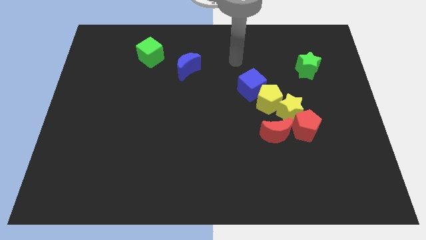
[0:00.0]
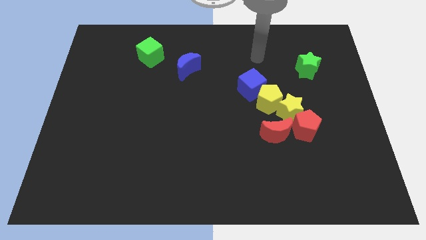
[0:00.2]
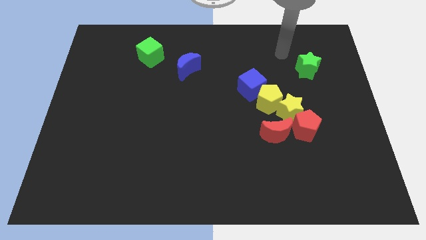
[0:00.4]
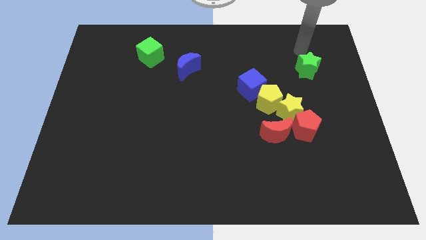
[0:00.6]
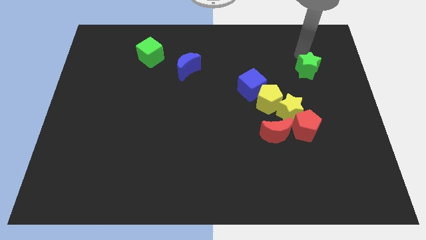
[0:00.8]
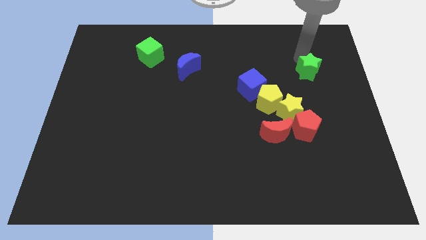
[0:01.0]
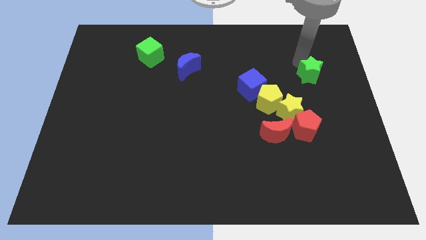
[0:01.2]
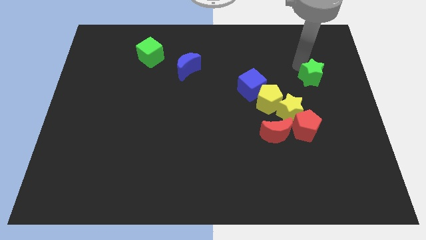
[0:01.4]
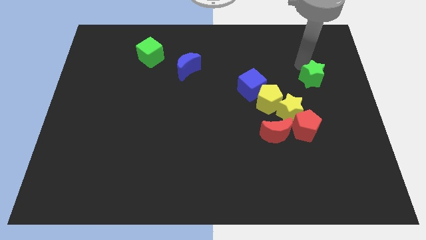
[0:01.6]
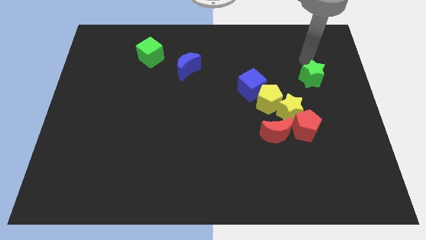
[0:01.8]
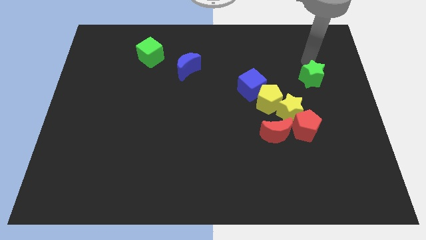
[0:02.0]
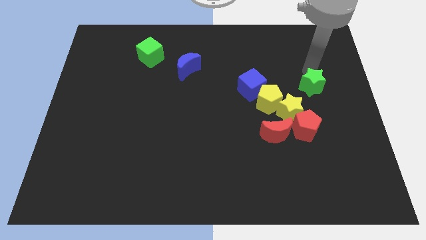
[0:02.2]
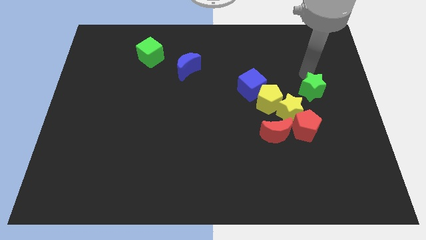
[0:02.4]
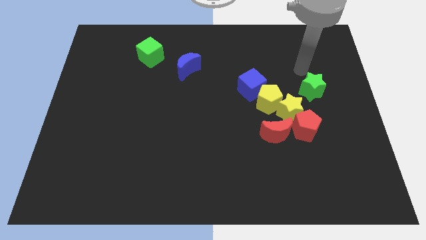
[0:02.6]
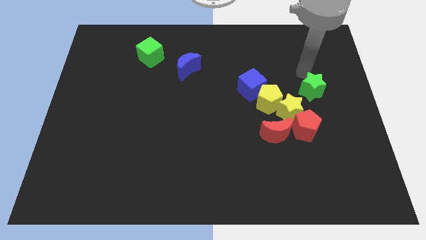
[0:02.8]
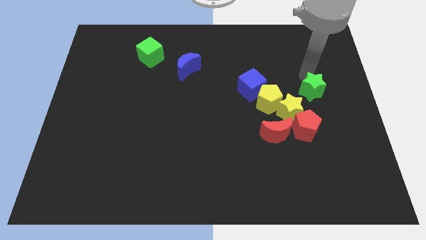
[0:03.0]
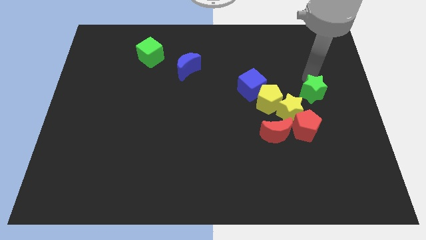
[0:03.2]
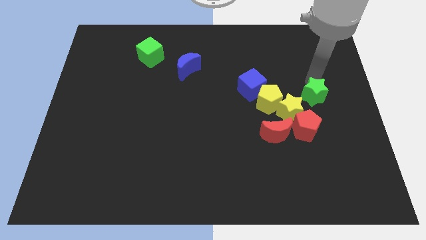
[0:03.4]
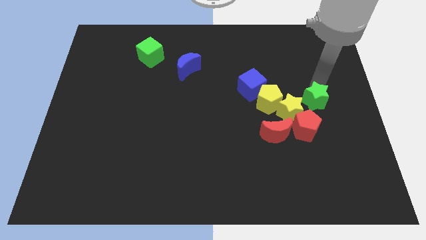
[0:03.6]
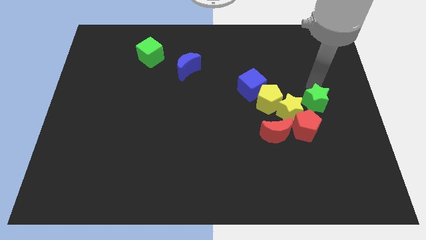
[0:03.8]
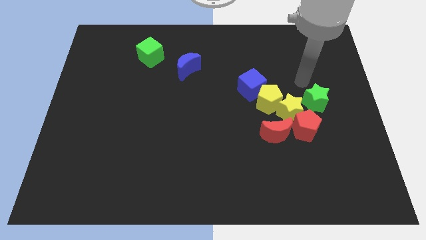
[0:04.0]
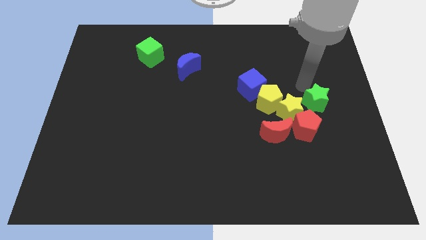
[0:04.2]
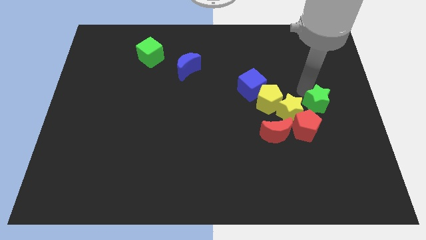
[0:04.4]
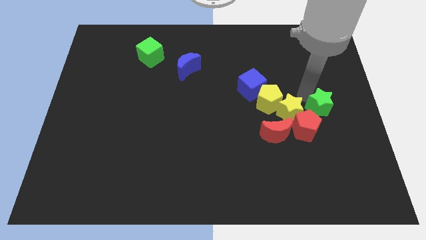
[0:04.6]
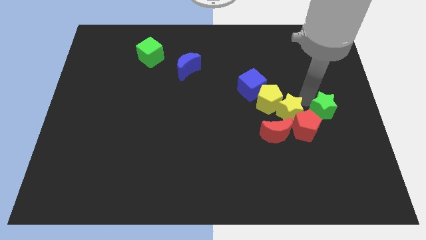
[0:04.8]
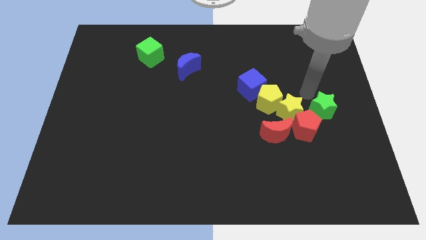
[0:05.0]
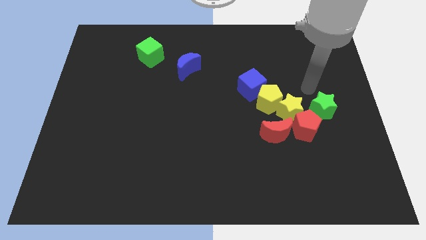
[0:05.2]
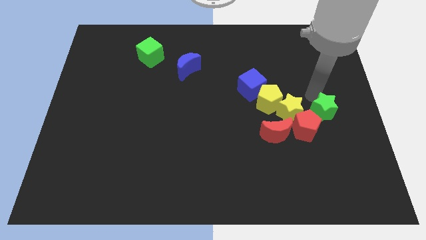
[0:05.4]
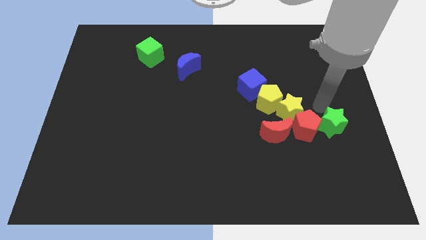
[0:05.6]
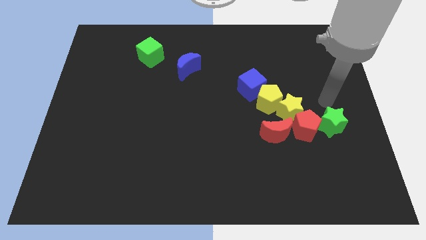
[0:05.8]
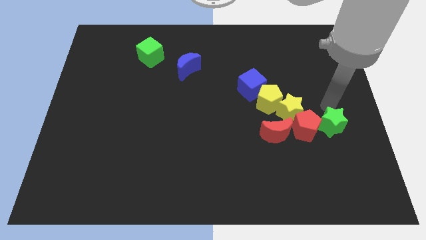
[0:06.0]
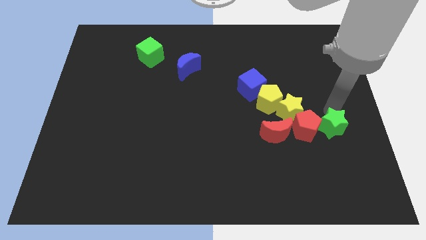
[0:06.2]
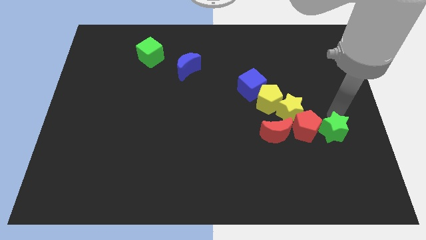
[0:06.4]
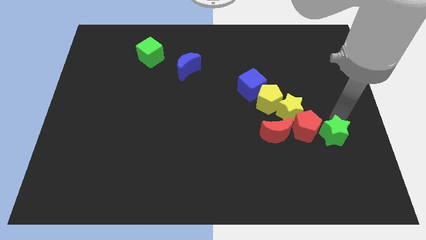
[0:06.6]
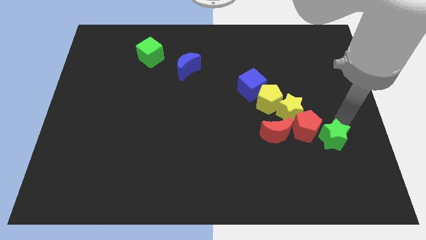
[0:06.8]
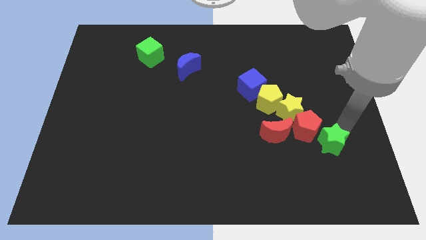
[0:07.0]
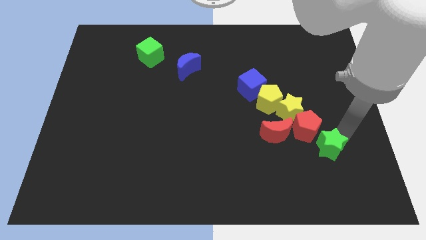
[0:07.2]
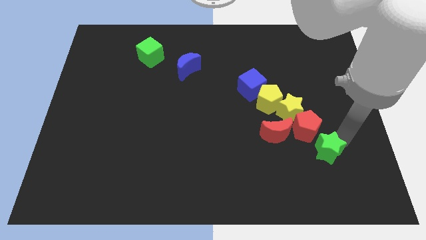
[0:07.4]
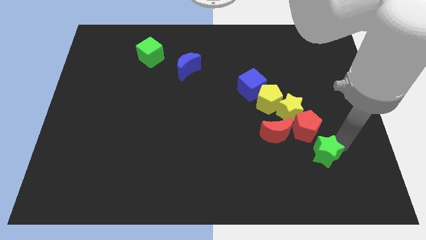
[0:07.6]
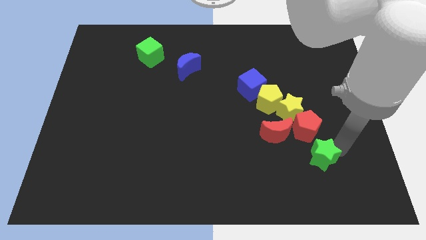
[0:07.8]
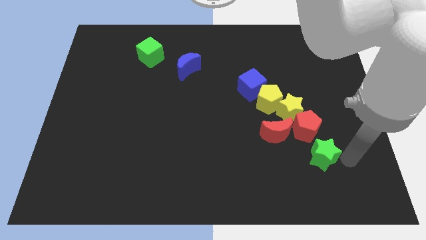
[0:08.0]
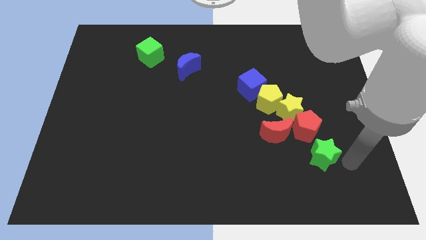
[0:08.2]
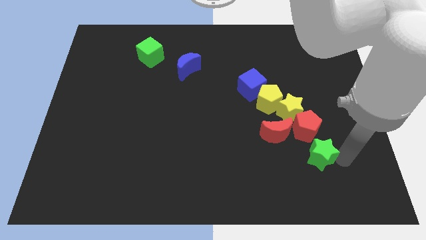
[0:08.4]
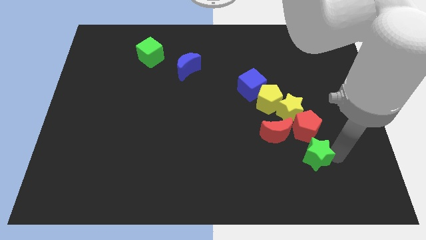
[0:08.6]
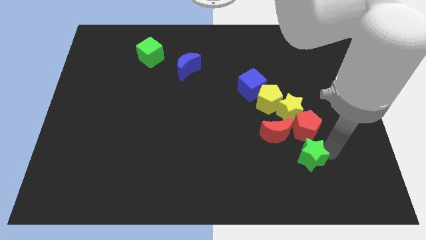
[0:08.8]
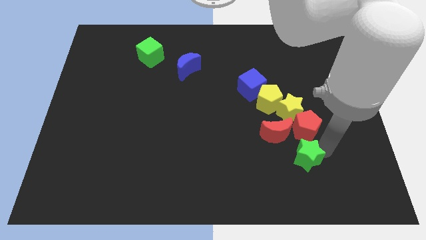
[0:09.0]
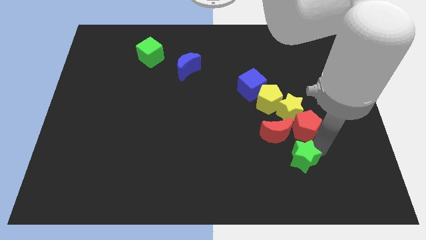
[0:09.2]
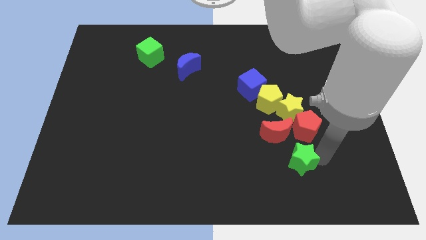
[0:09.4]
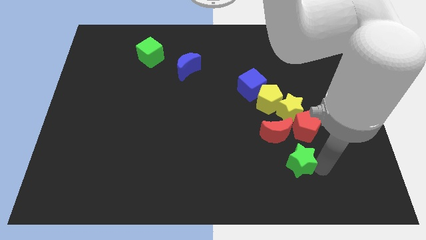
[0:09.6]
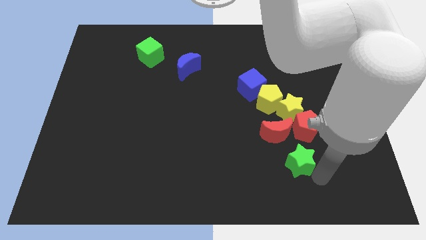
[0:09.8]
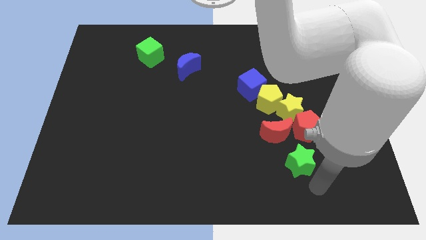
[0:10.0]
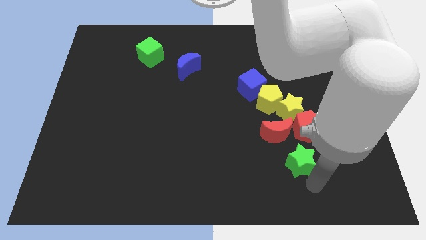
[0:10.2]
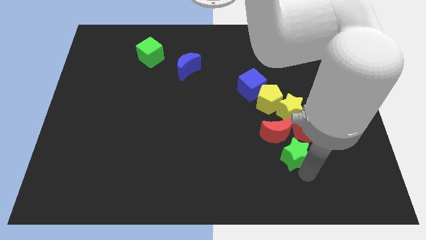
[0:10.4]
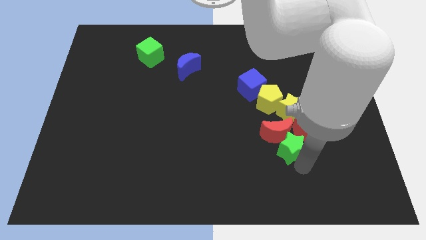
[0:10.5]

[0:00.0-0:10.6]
put the green star close to the red moon

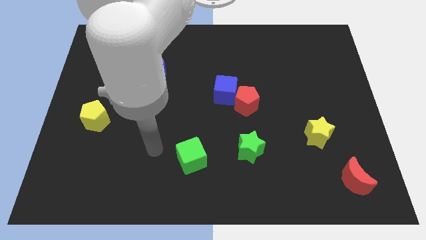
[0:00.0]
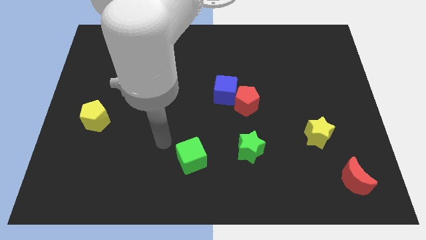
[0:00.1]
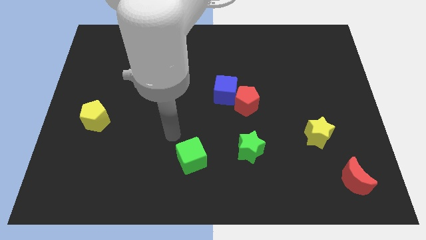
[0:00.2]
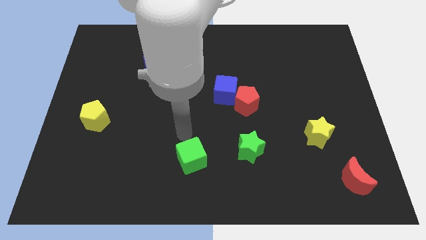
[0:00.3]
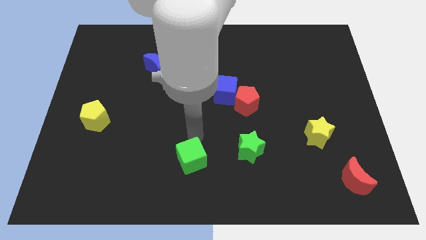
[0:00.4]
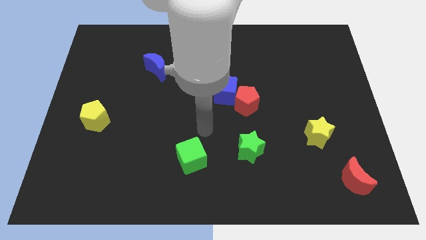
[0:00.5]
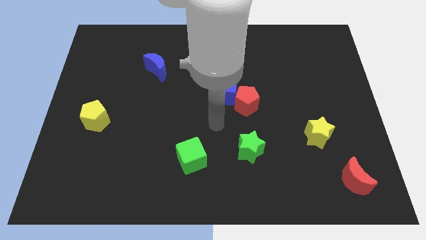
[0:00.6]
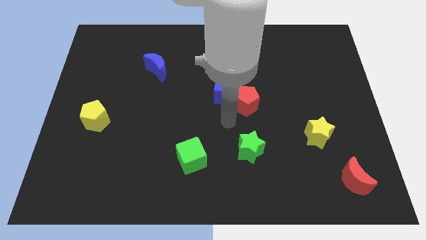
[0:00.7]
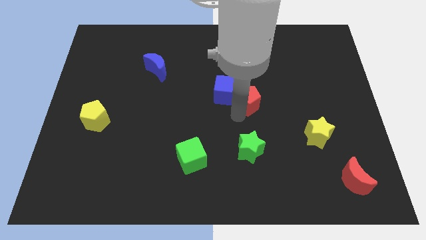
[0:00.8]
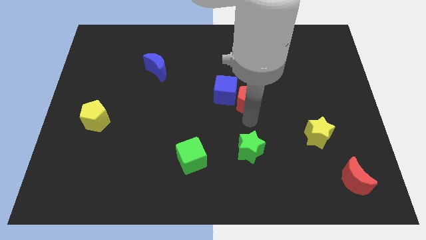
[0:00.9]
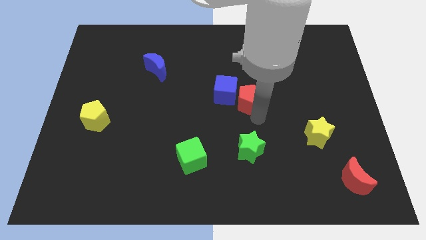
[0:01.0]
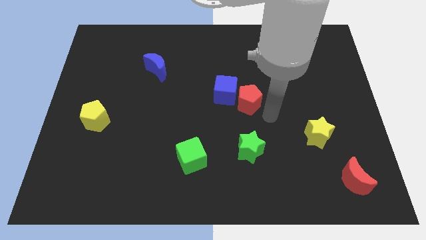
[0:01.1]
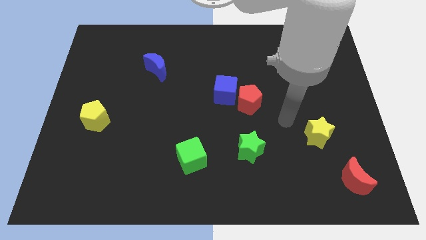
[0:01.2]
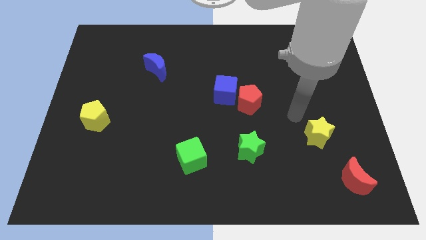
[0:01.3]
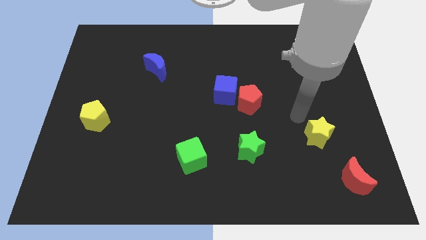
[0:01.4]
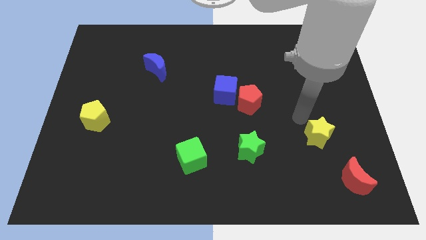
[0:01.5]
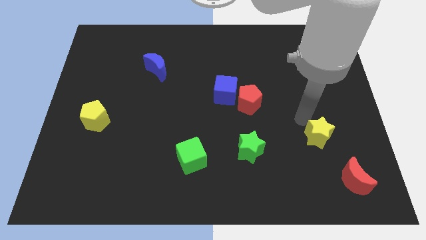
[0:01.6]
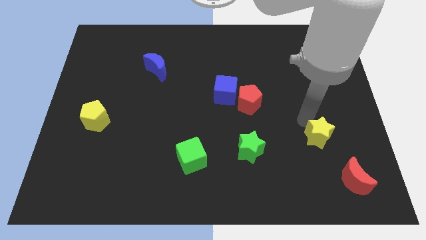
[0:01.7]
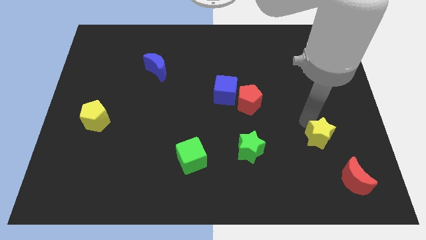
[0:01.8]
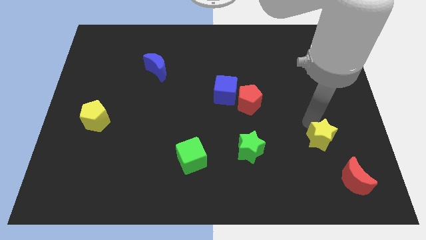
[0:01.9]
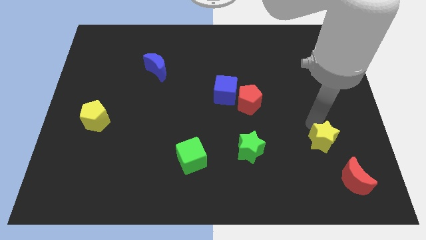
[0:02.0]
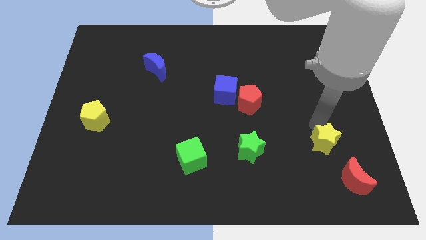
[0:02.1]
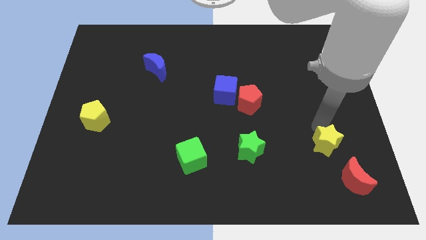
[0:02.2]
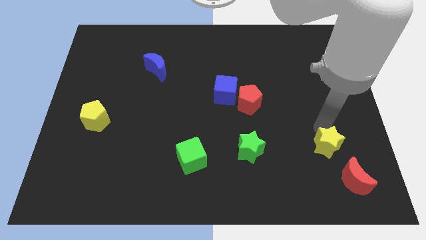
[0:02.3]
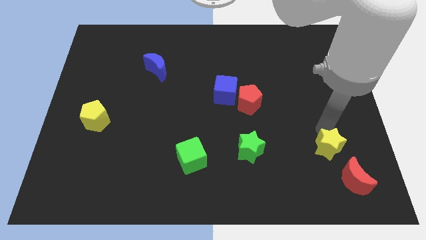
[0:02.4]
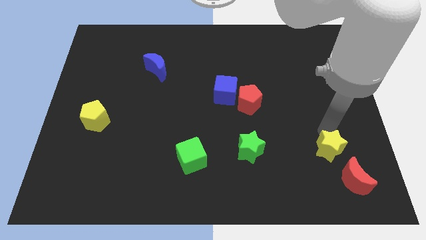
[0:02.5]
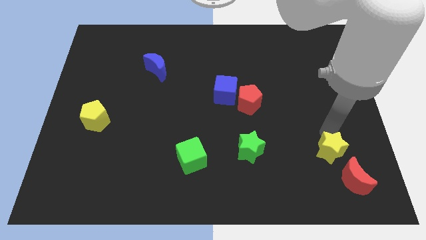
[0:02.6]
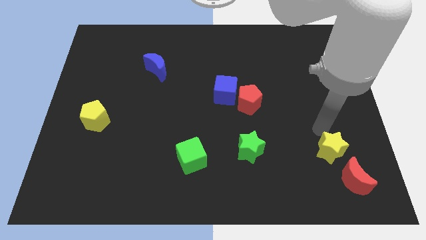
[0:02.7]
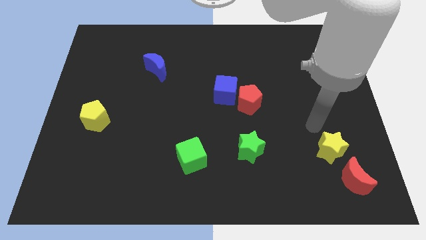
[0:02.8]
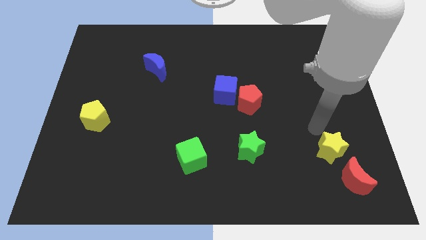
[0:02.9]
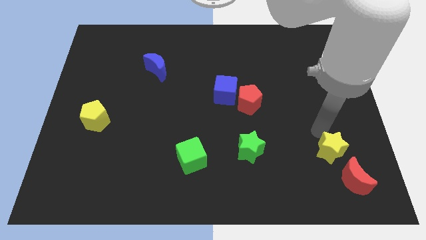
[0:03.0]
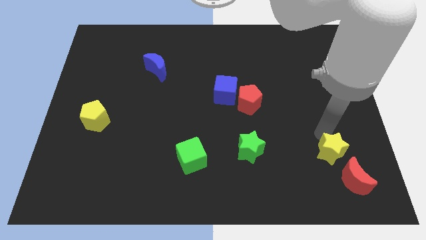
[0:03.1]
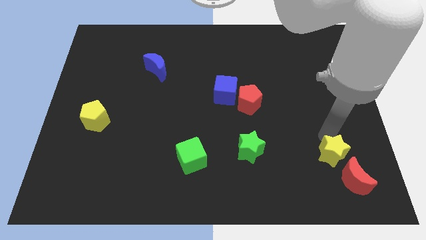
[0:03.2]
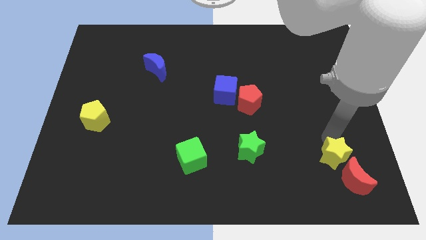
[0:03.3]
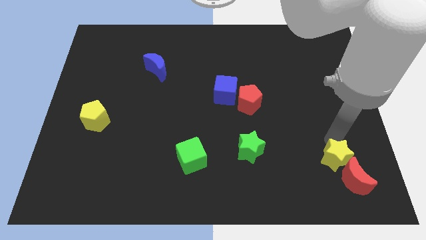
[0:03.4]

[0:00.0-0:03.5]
put the yellow star next to the red moon
